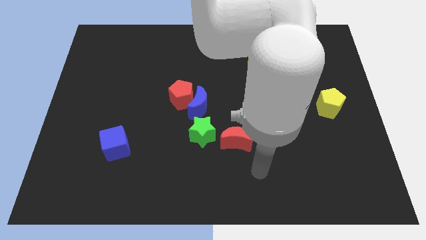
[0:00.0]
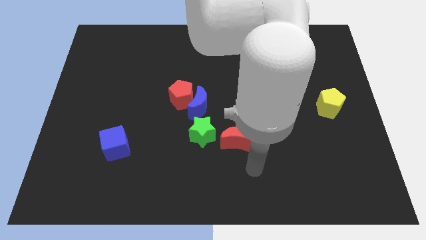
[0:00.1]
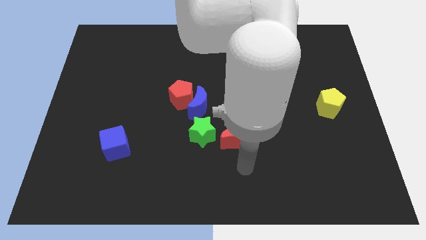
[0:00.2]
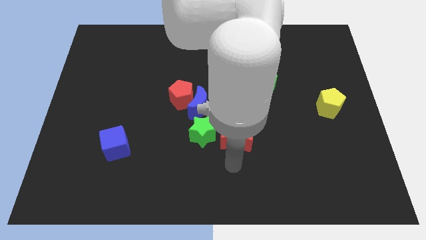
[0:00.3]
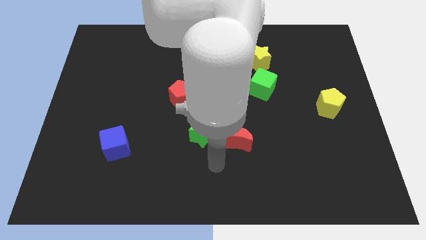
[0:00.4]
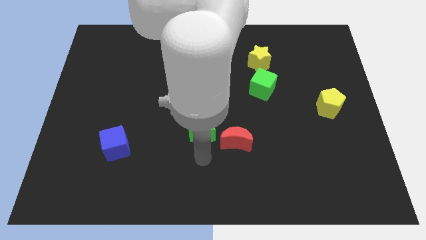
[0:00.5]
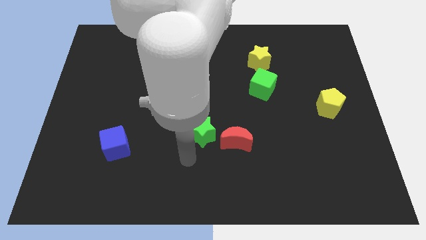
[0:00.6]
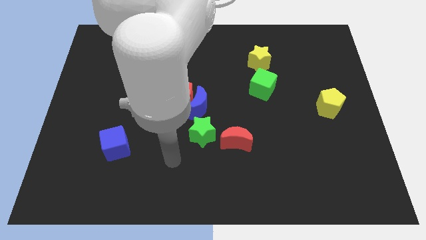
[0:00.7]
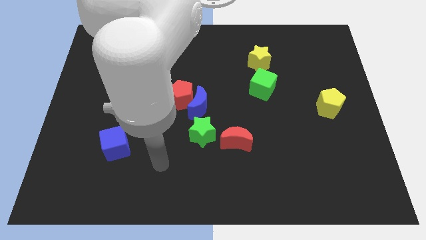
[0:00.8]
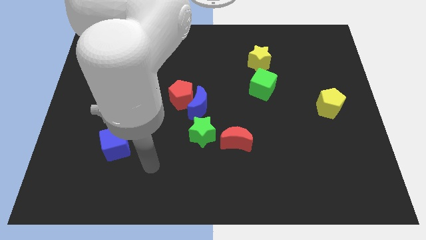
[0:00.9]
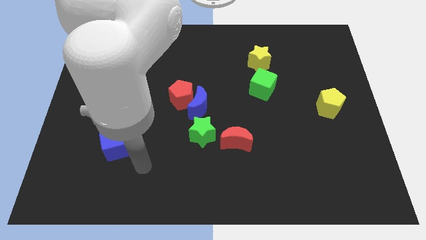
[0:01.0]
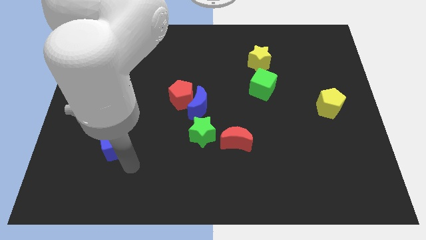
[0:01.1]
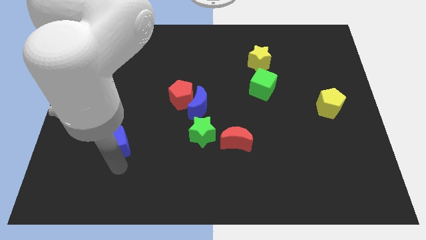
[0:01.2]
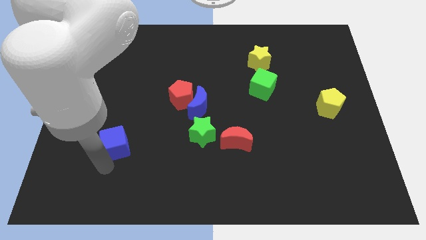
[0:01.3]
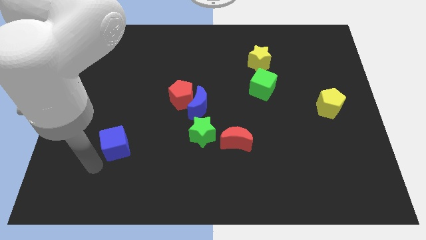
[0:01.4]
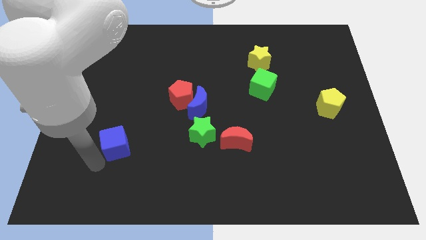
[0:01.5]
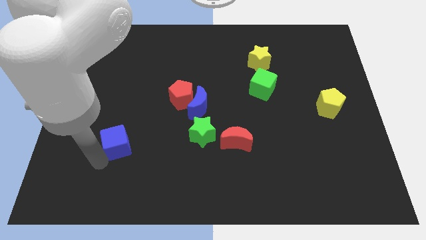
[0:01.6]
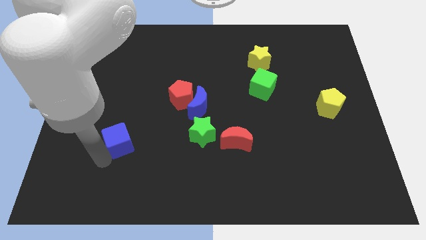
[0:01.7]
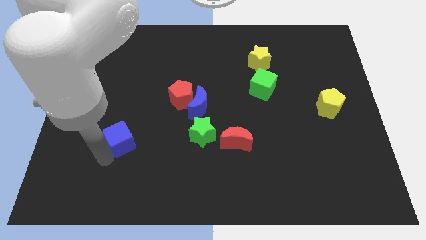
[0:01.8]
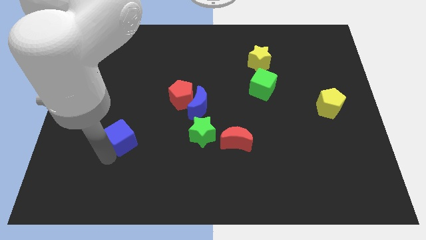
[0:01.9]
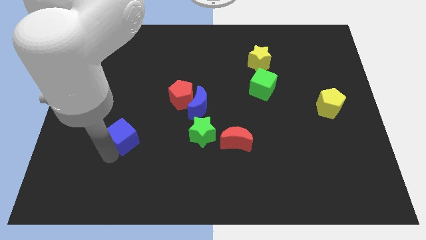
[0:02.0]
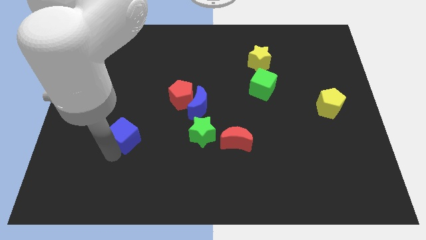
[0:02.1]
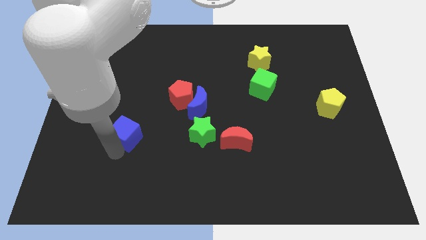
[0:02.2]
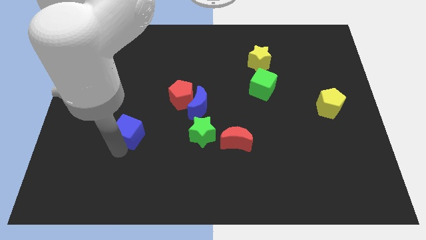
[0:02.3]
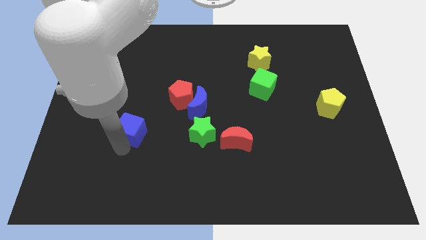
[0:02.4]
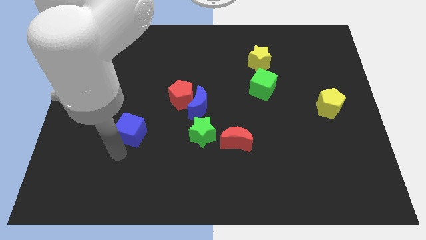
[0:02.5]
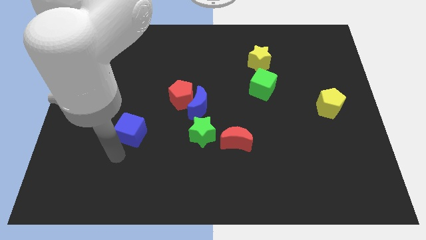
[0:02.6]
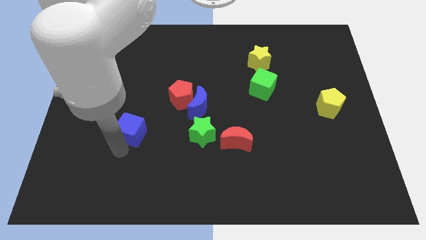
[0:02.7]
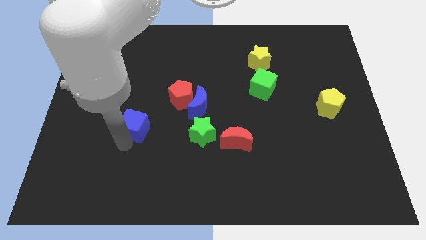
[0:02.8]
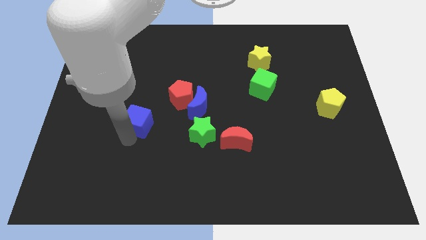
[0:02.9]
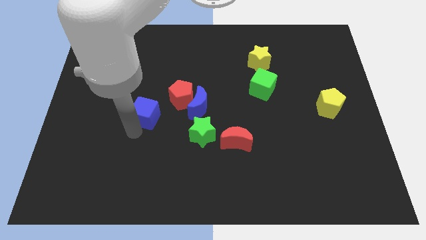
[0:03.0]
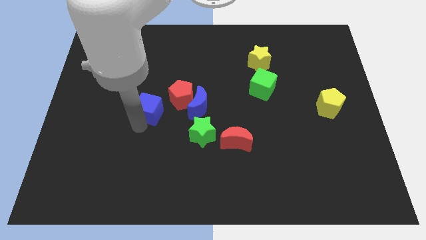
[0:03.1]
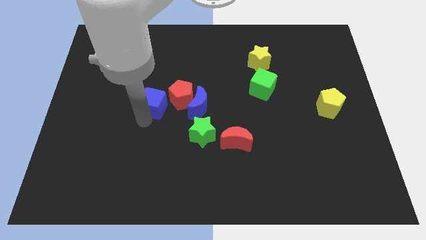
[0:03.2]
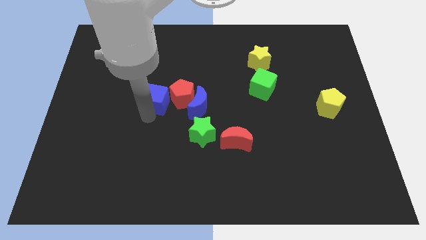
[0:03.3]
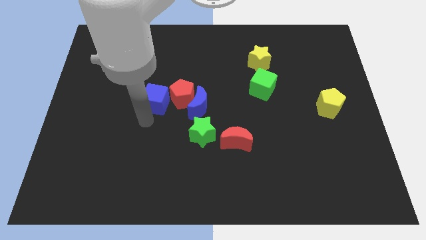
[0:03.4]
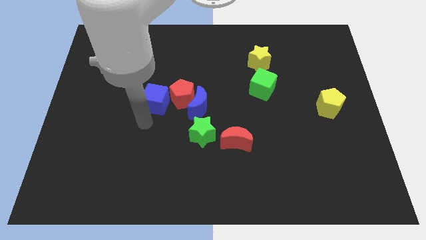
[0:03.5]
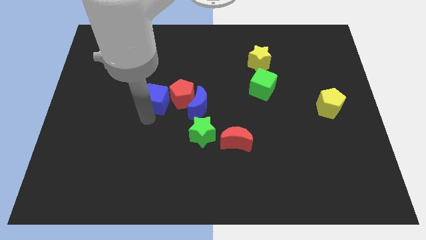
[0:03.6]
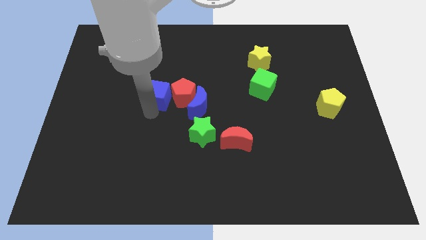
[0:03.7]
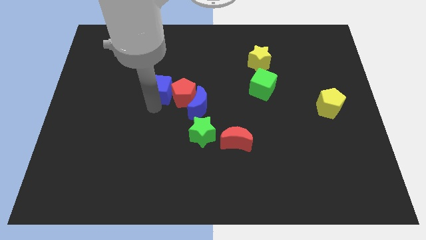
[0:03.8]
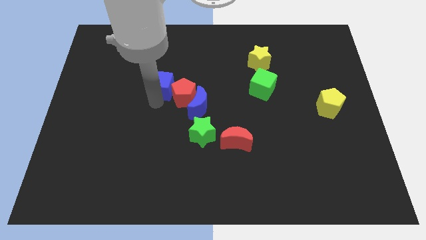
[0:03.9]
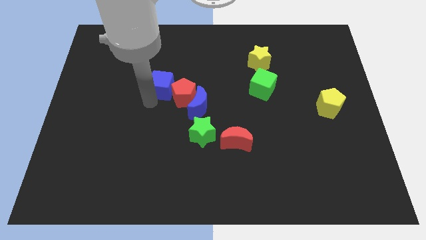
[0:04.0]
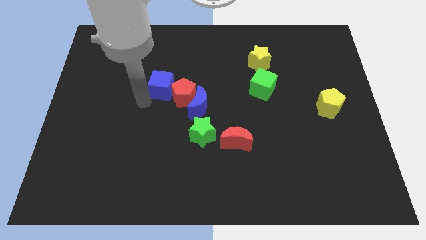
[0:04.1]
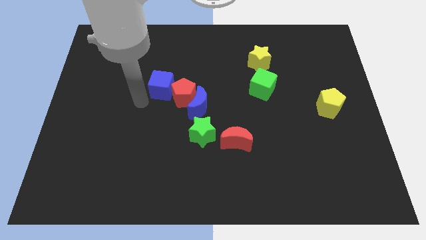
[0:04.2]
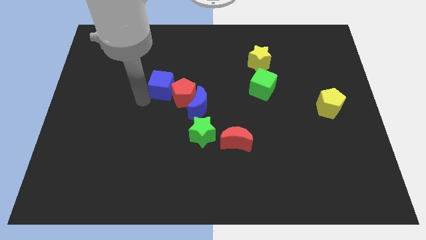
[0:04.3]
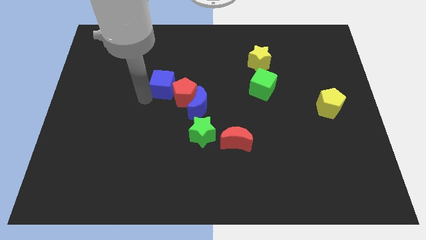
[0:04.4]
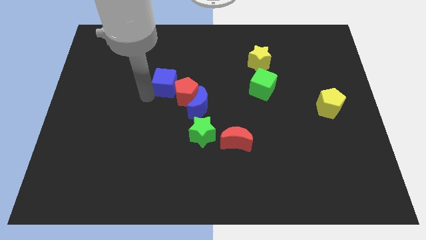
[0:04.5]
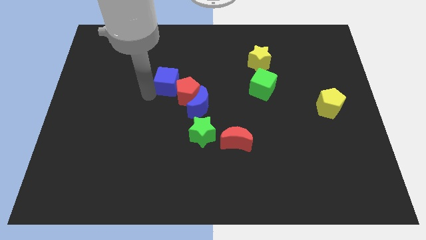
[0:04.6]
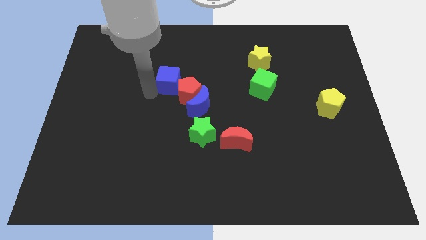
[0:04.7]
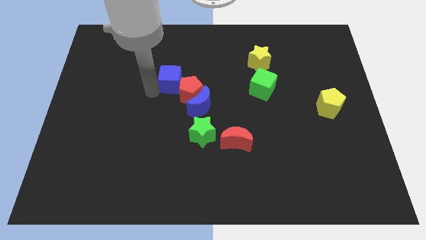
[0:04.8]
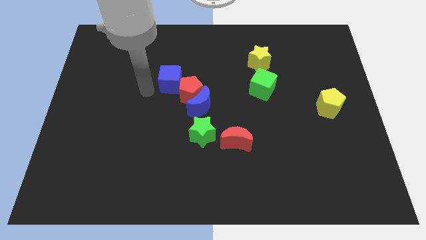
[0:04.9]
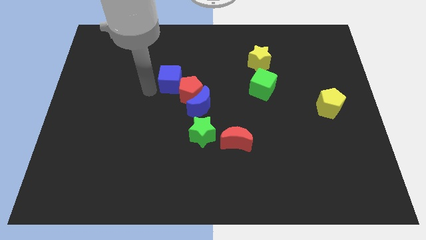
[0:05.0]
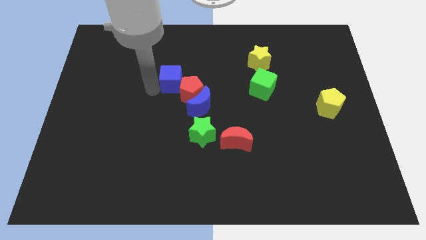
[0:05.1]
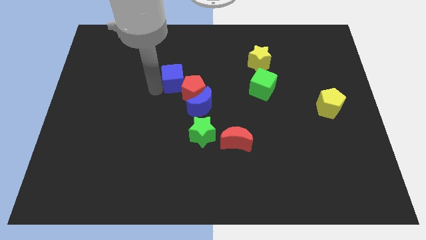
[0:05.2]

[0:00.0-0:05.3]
slide the blue cube upwards and right

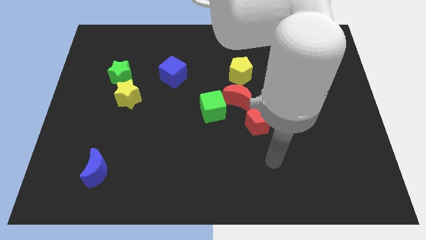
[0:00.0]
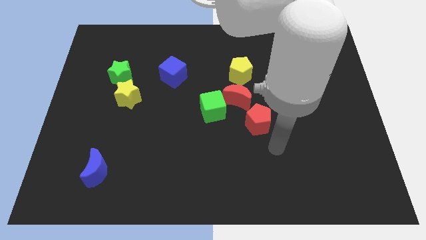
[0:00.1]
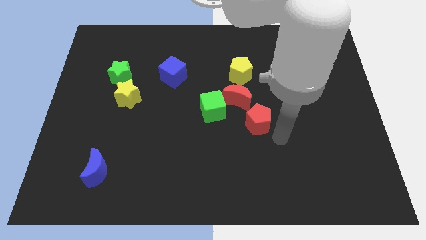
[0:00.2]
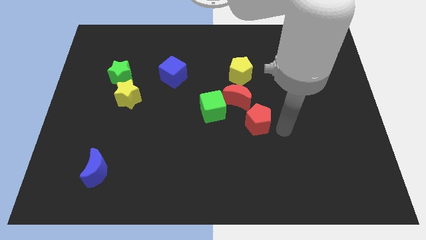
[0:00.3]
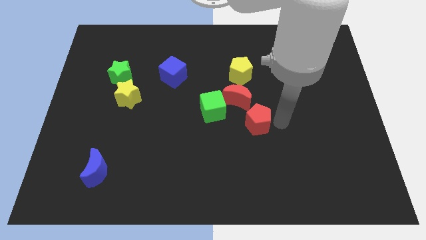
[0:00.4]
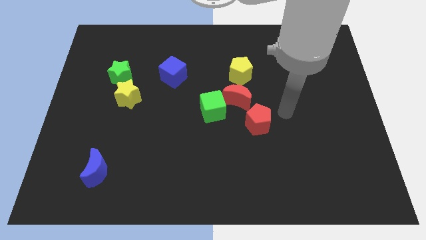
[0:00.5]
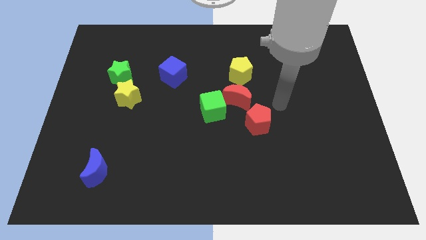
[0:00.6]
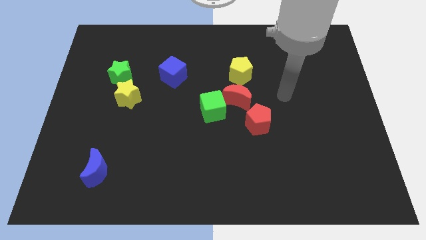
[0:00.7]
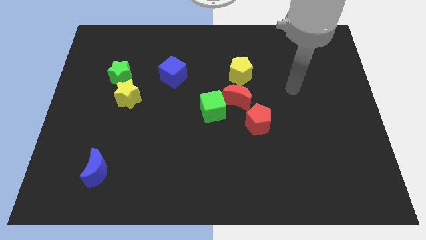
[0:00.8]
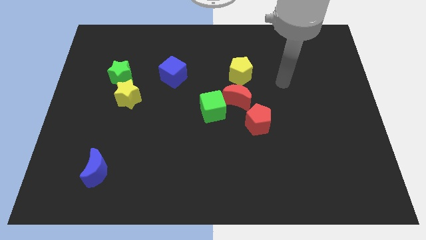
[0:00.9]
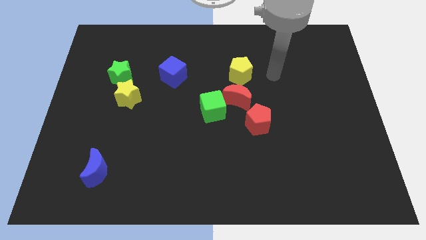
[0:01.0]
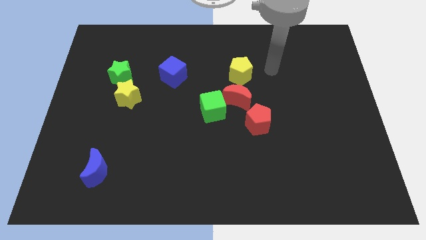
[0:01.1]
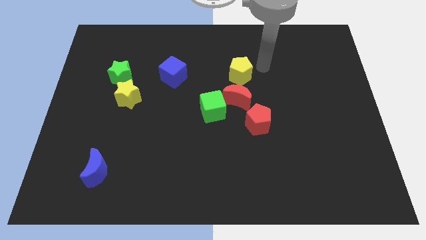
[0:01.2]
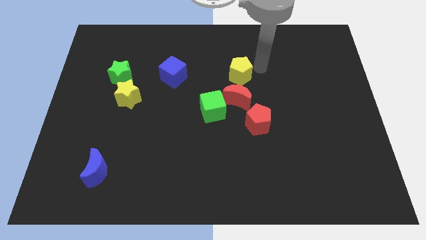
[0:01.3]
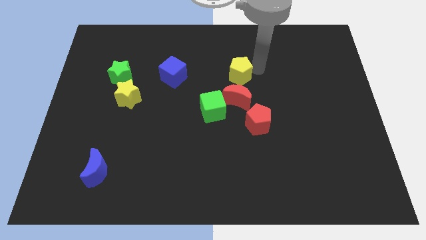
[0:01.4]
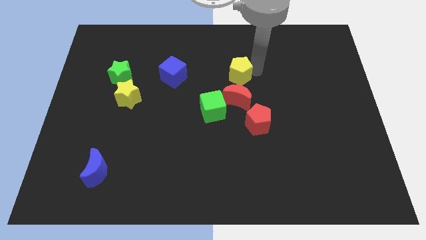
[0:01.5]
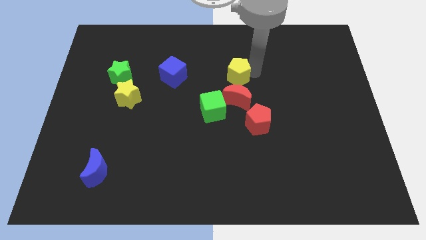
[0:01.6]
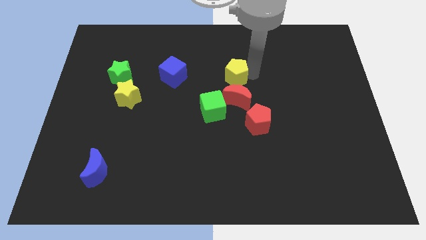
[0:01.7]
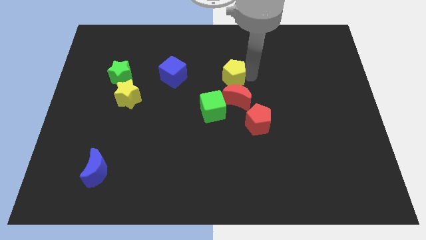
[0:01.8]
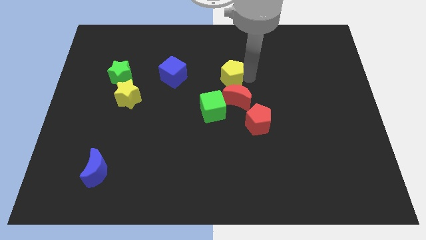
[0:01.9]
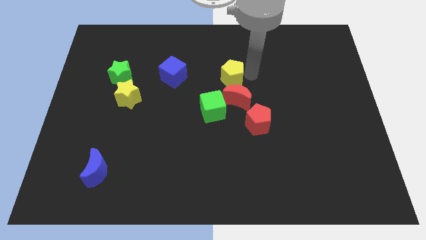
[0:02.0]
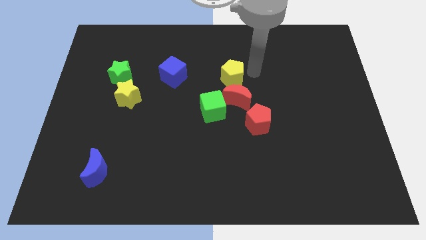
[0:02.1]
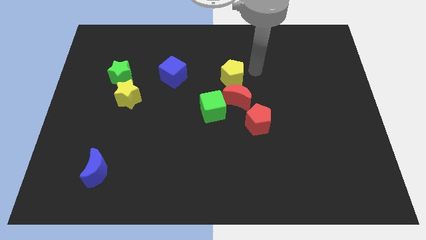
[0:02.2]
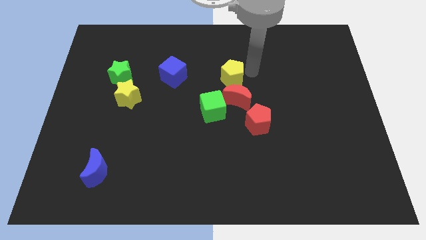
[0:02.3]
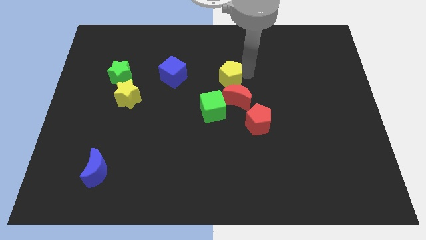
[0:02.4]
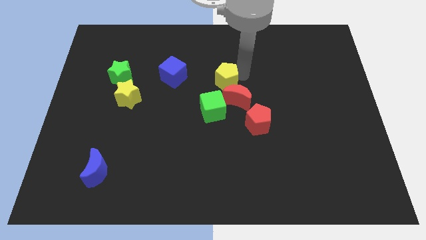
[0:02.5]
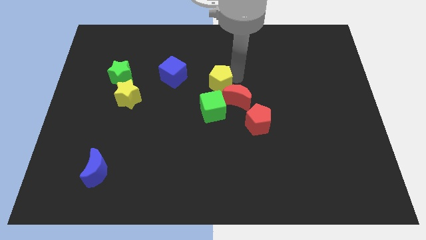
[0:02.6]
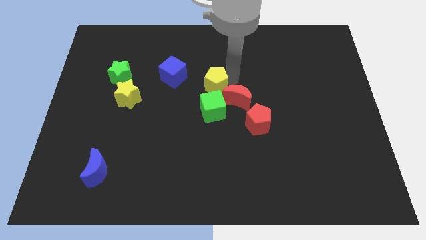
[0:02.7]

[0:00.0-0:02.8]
move the yellow pentagon diagonally down and to the left a little
